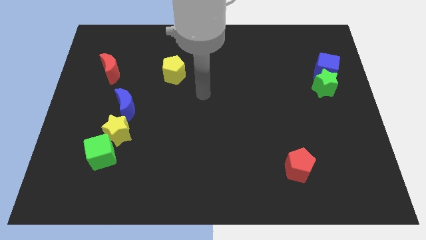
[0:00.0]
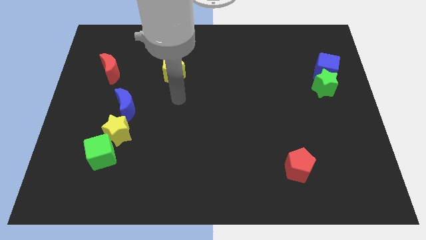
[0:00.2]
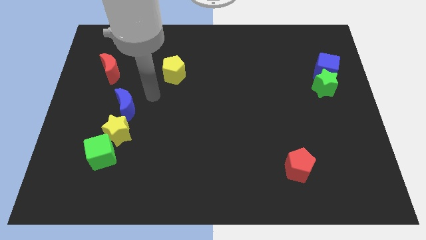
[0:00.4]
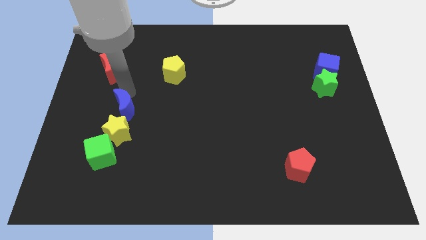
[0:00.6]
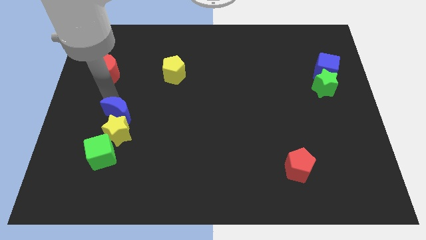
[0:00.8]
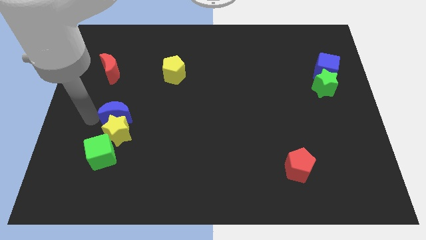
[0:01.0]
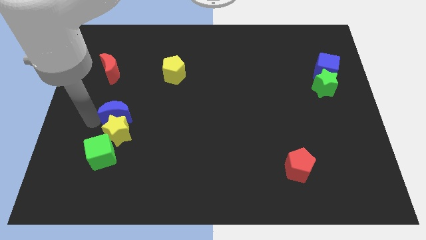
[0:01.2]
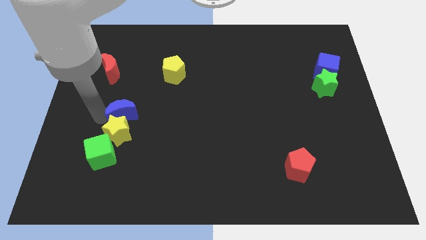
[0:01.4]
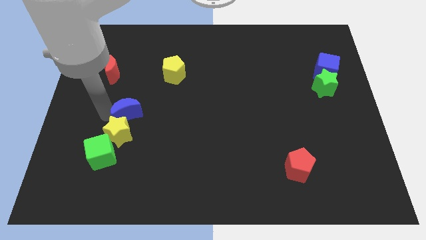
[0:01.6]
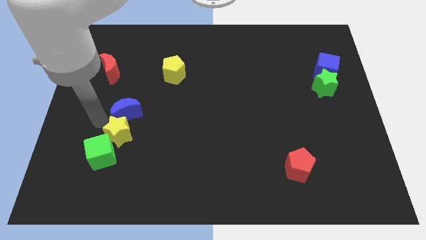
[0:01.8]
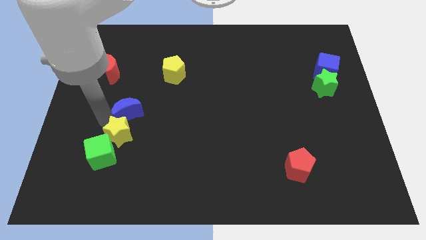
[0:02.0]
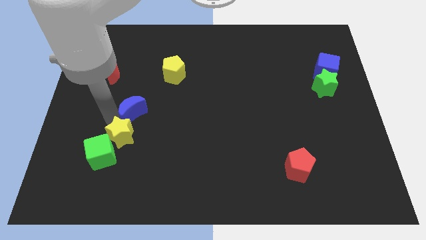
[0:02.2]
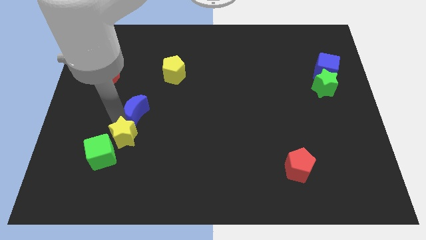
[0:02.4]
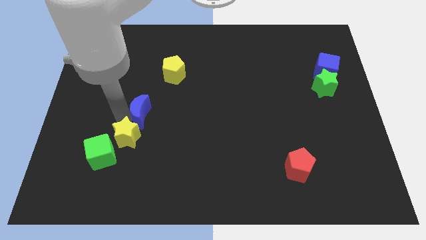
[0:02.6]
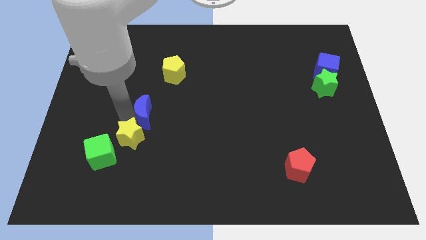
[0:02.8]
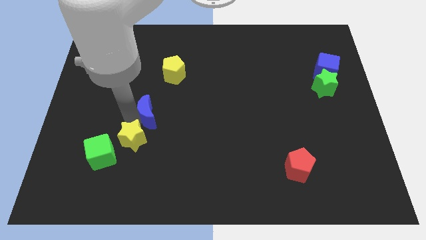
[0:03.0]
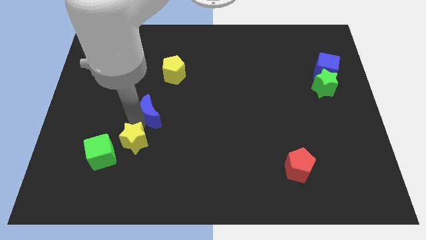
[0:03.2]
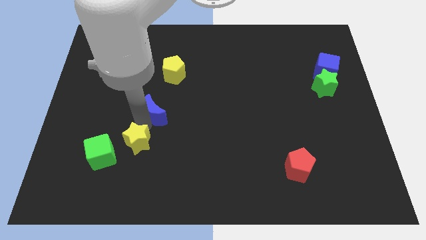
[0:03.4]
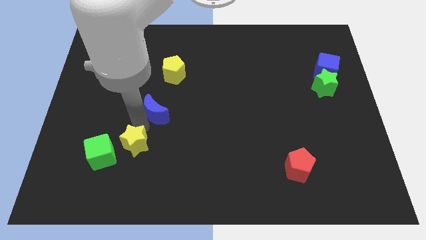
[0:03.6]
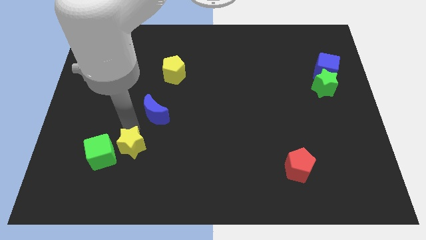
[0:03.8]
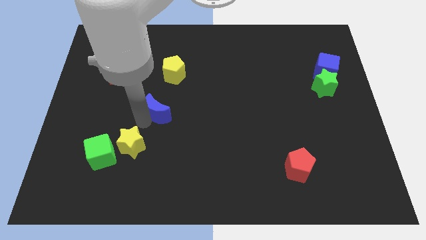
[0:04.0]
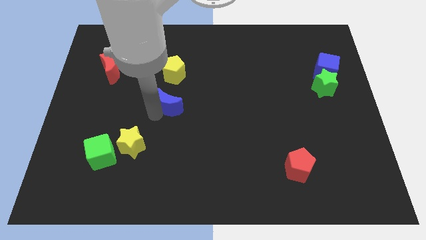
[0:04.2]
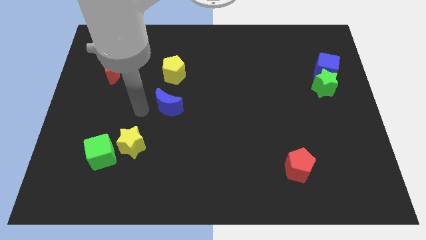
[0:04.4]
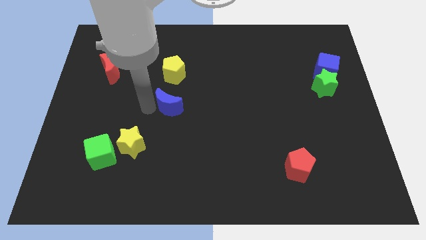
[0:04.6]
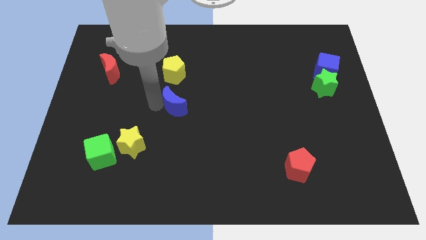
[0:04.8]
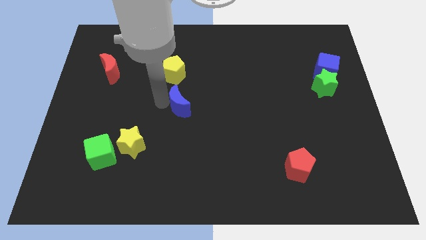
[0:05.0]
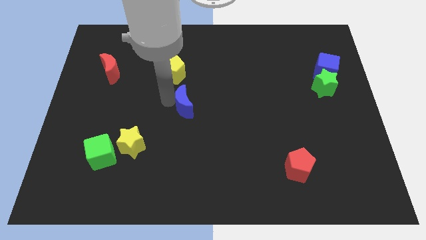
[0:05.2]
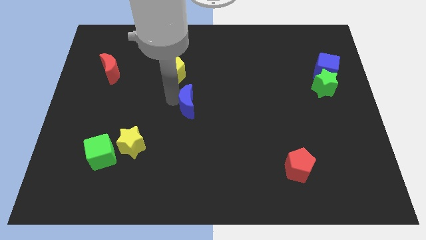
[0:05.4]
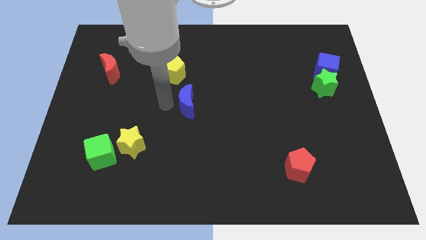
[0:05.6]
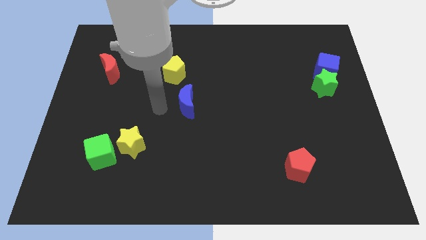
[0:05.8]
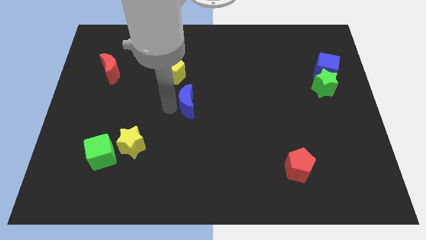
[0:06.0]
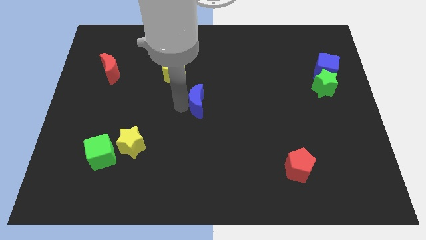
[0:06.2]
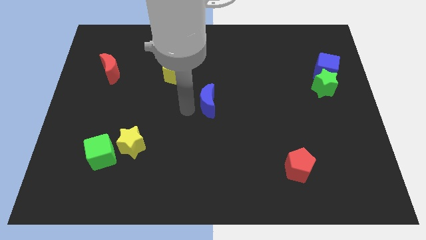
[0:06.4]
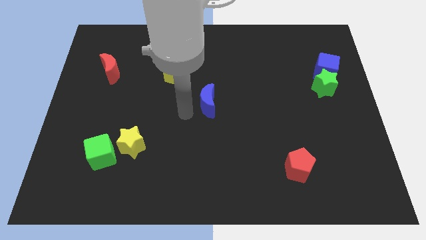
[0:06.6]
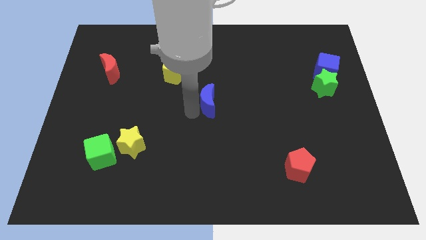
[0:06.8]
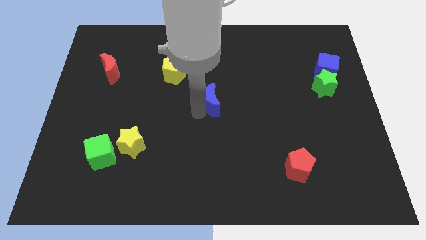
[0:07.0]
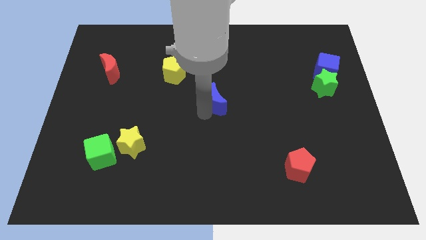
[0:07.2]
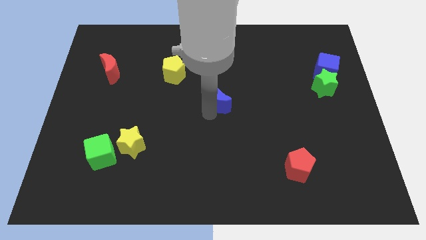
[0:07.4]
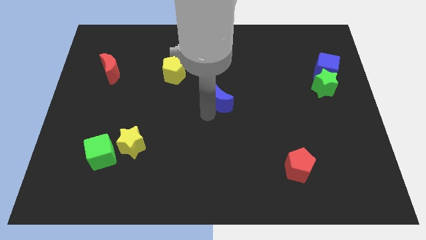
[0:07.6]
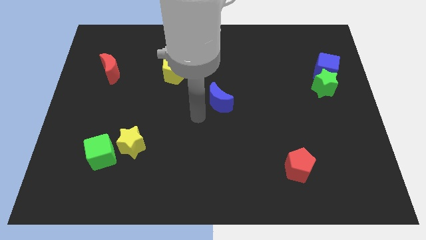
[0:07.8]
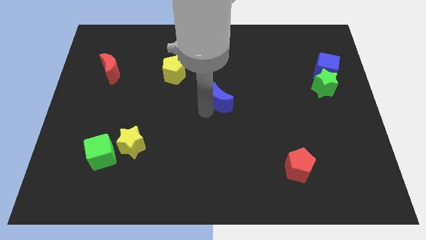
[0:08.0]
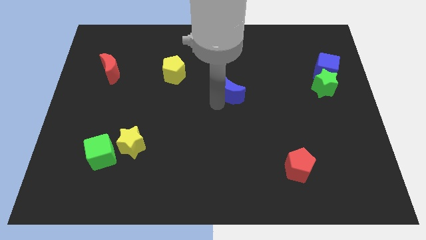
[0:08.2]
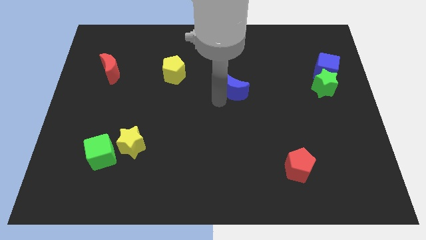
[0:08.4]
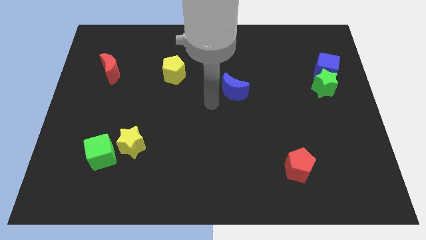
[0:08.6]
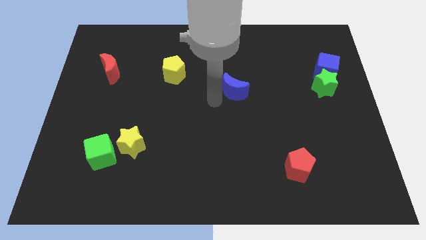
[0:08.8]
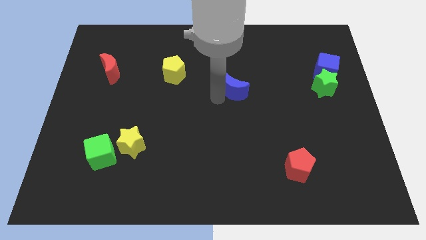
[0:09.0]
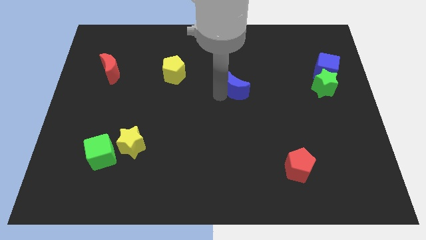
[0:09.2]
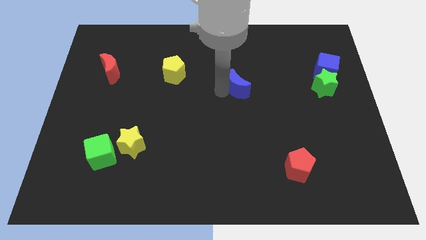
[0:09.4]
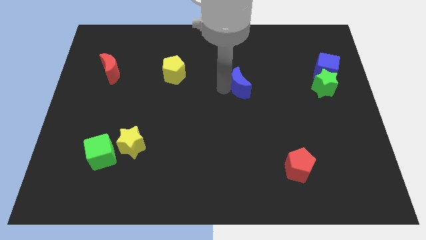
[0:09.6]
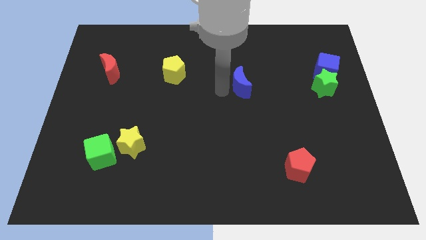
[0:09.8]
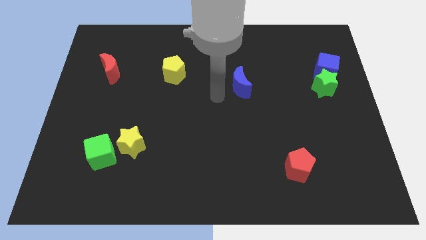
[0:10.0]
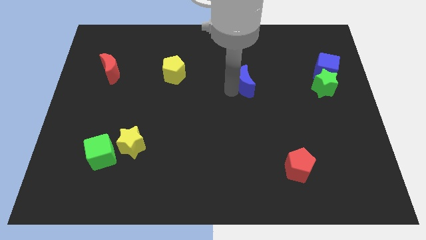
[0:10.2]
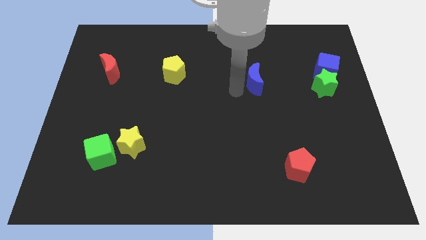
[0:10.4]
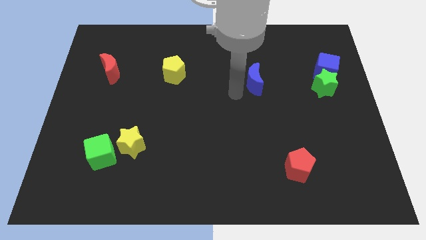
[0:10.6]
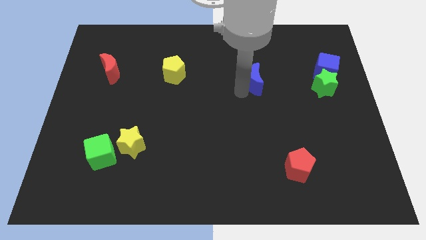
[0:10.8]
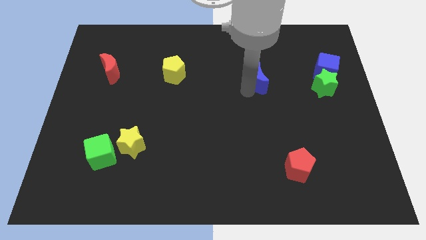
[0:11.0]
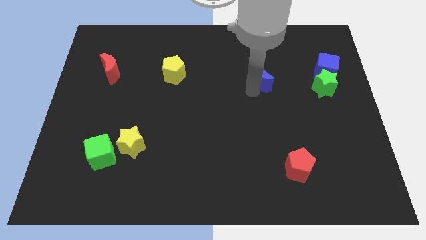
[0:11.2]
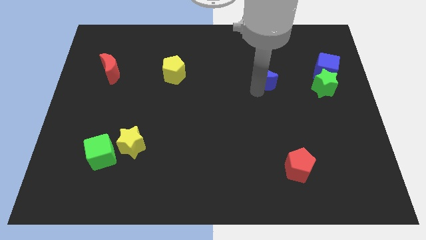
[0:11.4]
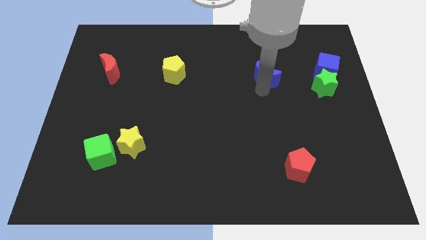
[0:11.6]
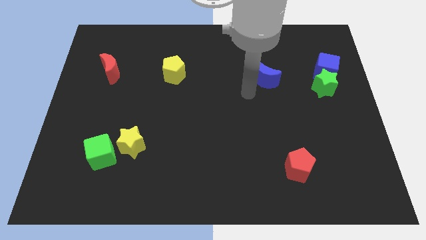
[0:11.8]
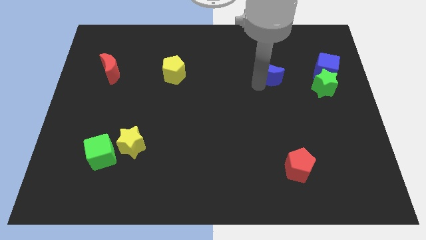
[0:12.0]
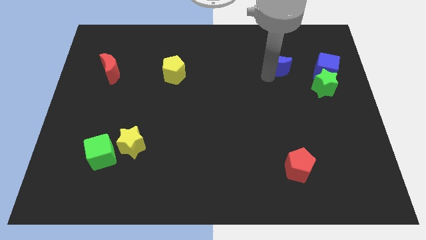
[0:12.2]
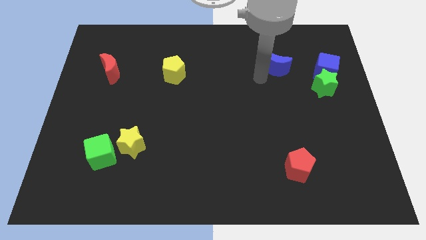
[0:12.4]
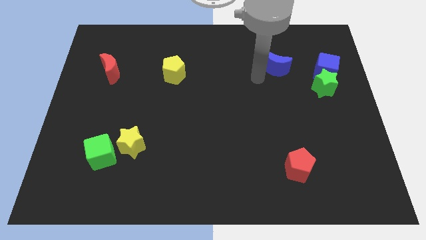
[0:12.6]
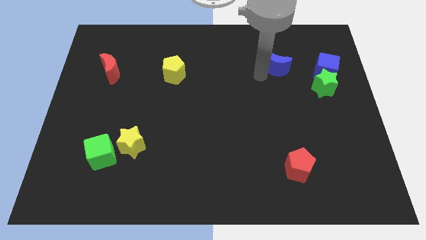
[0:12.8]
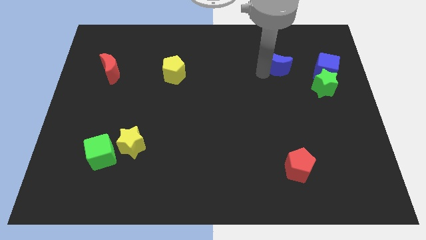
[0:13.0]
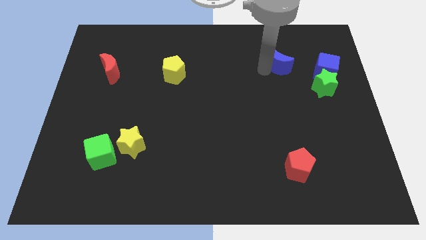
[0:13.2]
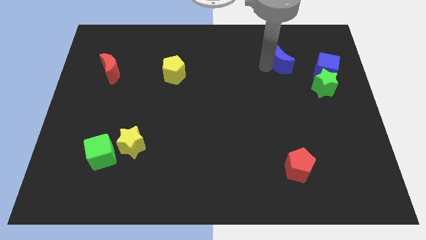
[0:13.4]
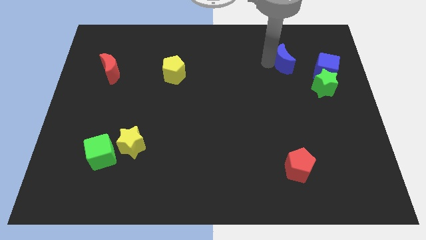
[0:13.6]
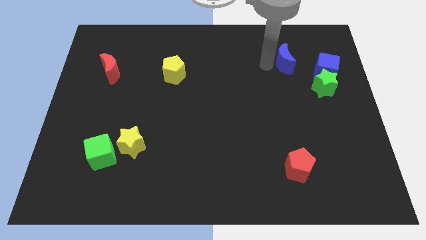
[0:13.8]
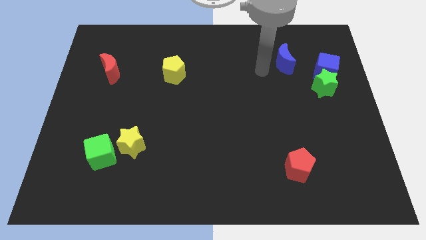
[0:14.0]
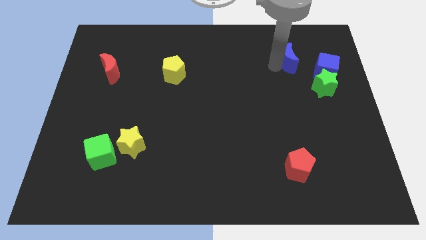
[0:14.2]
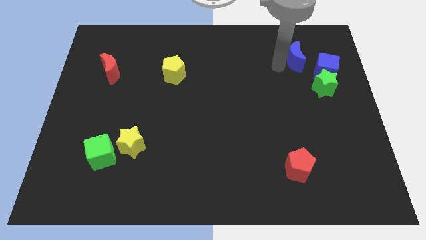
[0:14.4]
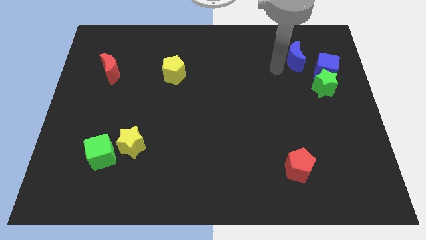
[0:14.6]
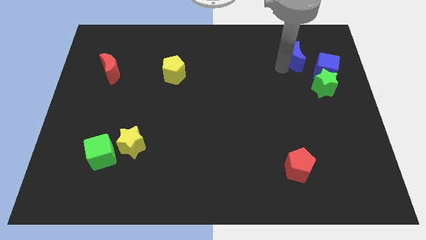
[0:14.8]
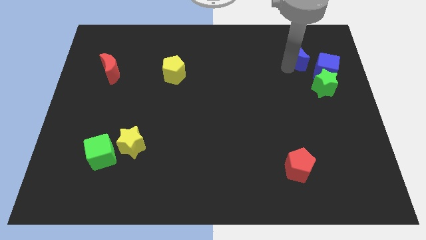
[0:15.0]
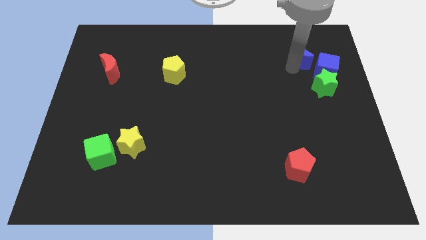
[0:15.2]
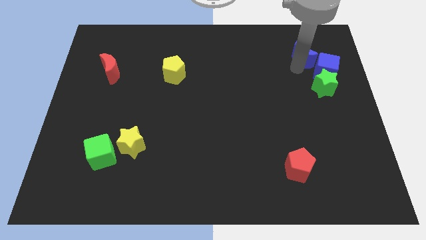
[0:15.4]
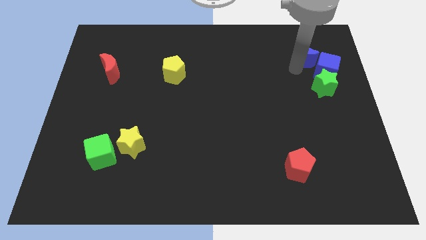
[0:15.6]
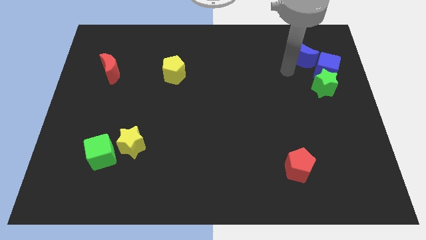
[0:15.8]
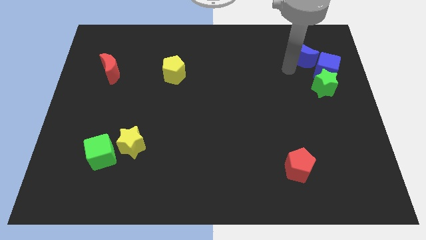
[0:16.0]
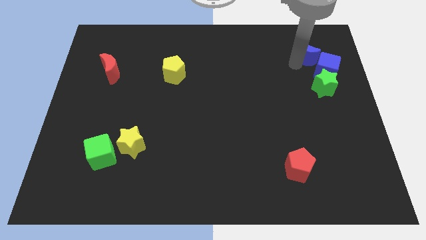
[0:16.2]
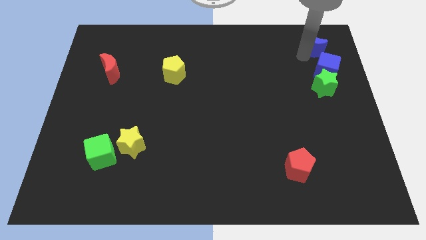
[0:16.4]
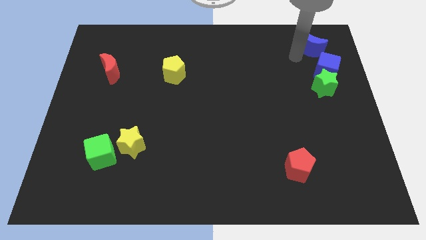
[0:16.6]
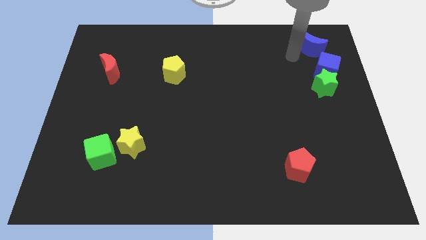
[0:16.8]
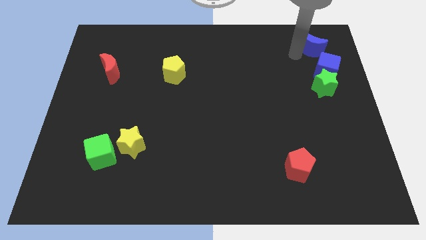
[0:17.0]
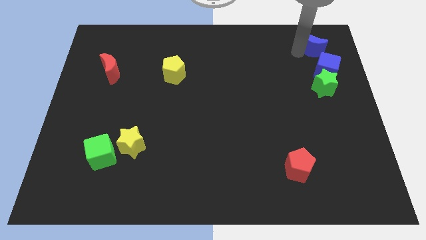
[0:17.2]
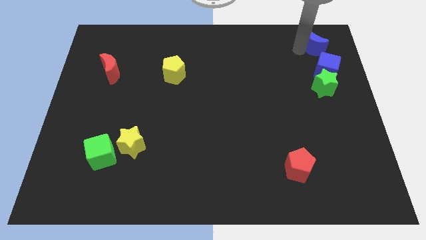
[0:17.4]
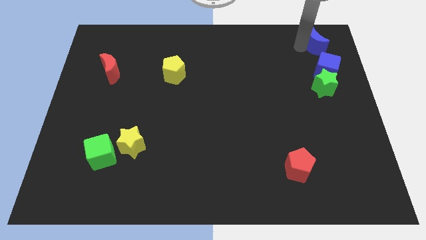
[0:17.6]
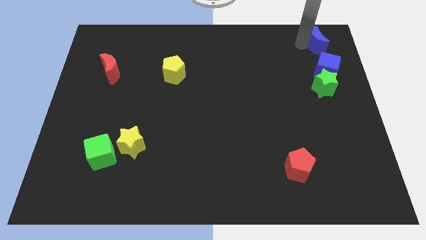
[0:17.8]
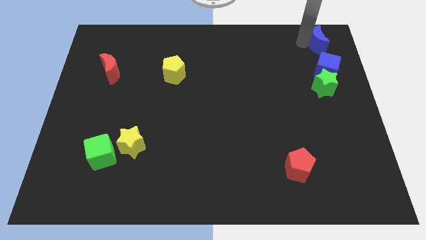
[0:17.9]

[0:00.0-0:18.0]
put the blue moon to the top right corner
